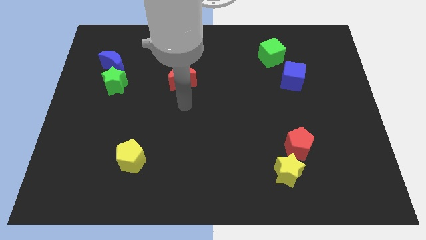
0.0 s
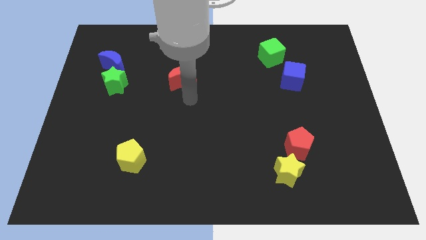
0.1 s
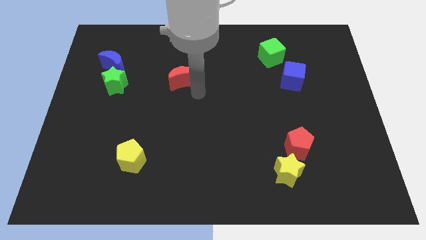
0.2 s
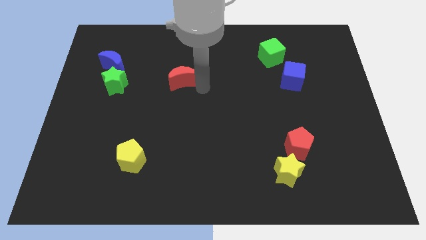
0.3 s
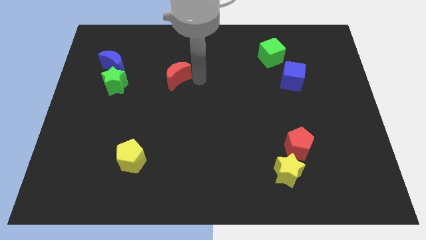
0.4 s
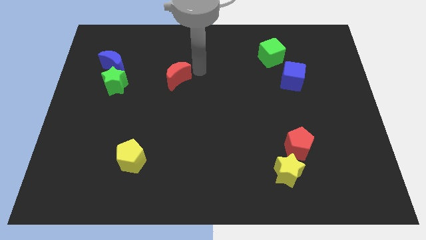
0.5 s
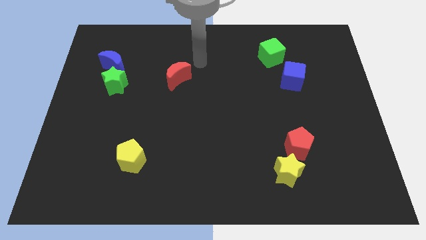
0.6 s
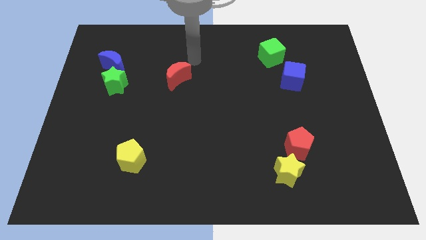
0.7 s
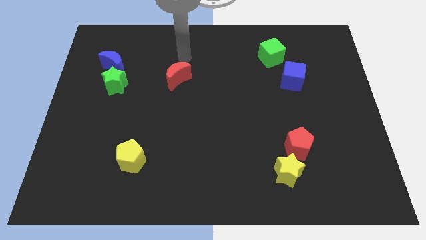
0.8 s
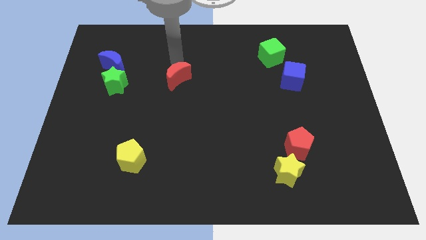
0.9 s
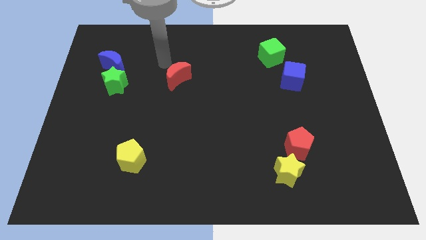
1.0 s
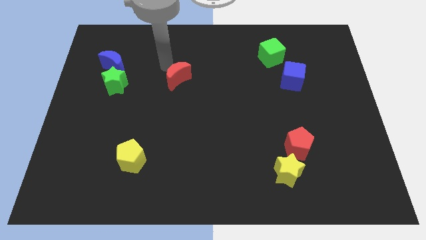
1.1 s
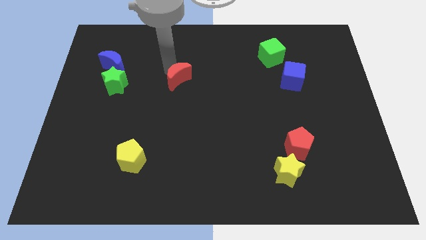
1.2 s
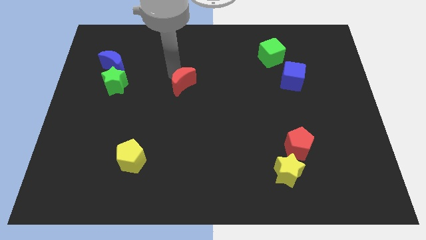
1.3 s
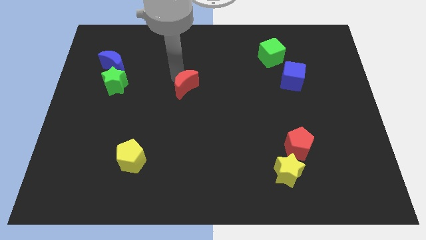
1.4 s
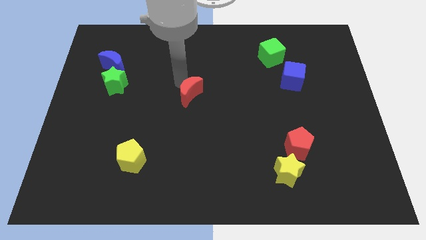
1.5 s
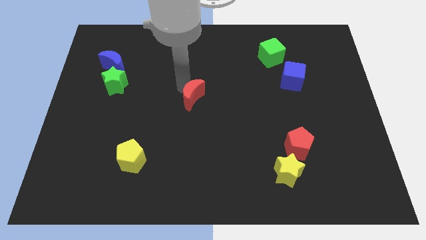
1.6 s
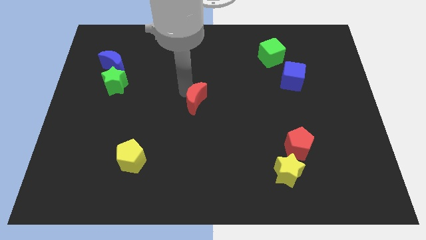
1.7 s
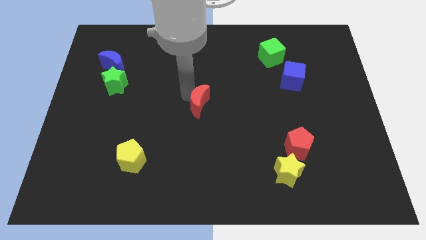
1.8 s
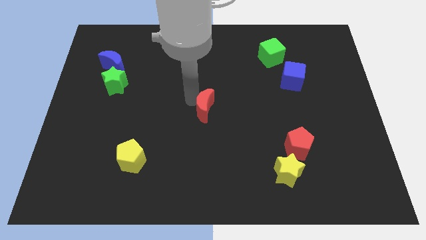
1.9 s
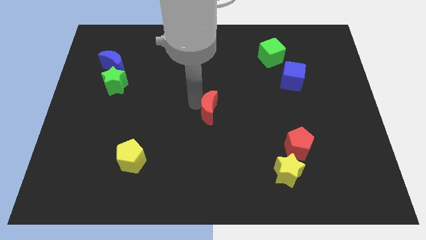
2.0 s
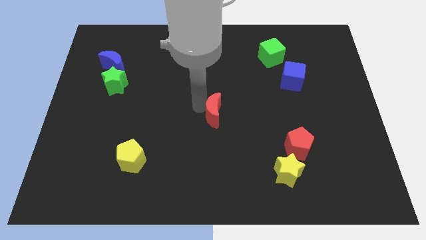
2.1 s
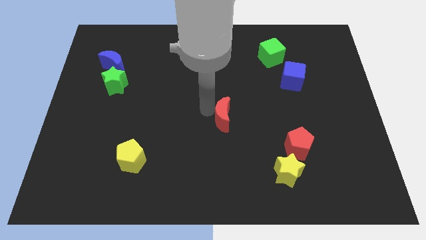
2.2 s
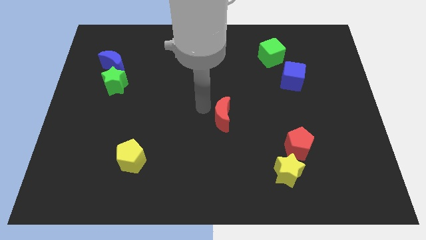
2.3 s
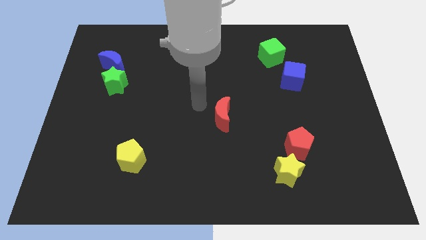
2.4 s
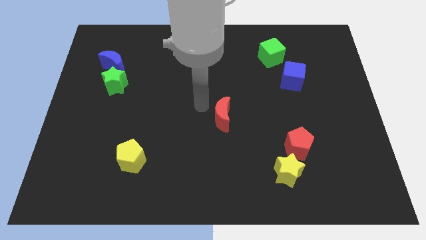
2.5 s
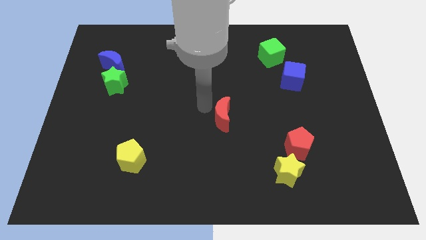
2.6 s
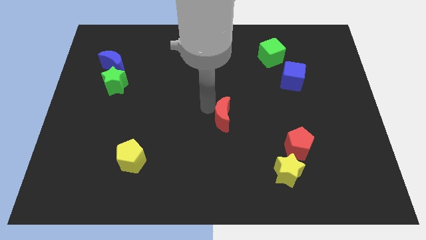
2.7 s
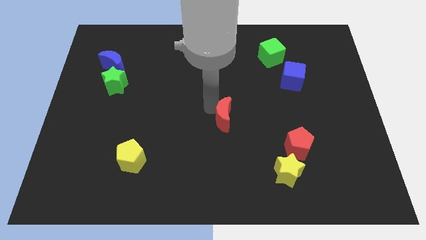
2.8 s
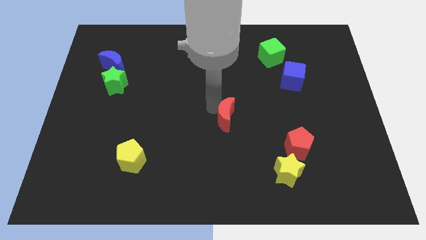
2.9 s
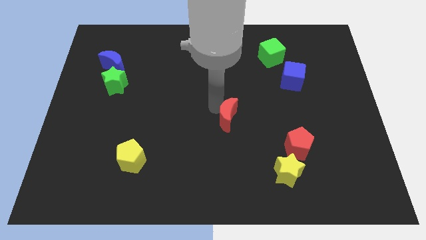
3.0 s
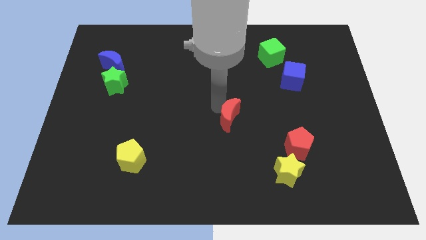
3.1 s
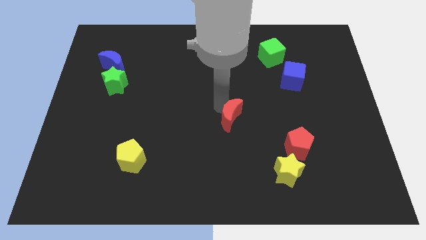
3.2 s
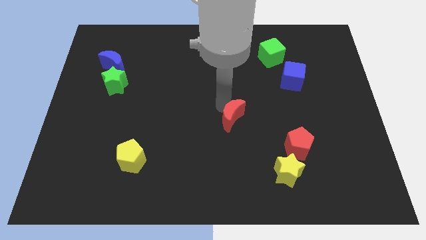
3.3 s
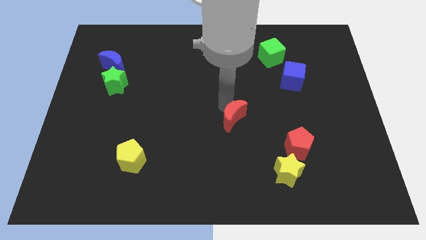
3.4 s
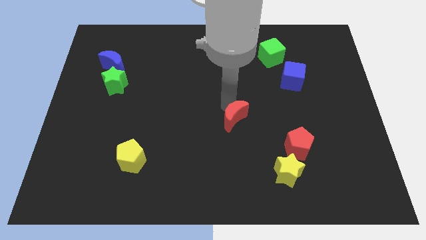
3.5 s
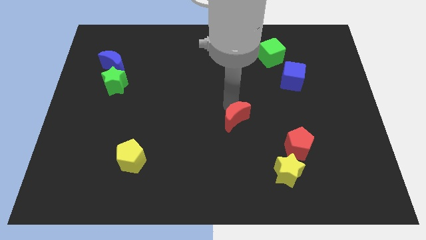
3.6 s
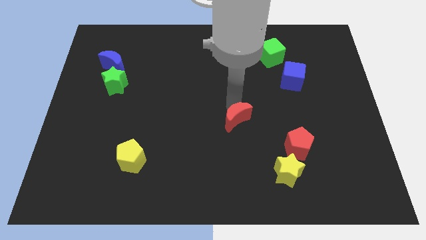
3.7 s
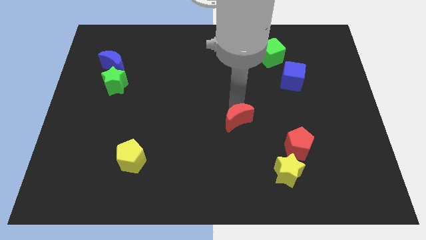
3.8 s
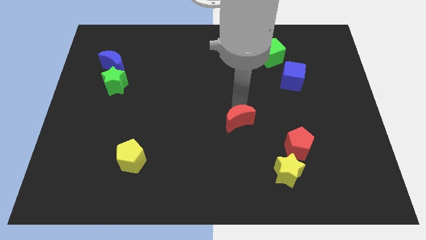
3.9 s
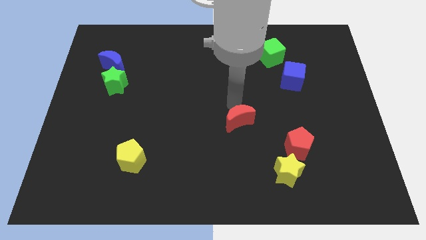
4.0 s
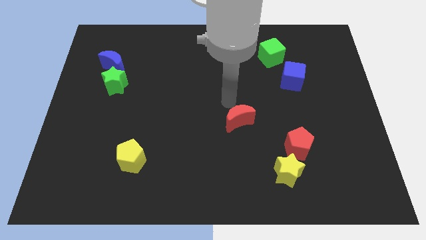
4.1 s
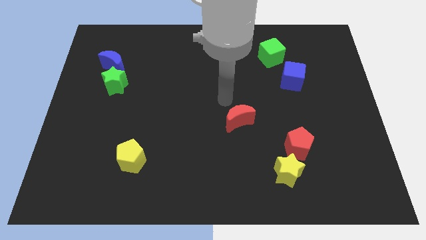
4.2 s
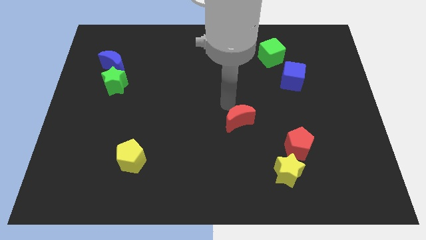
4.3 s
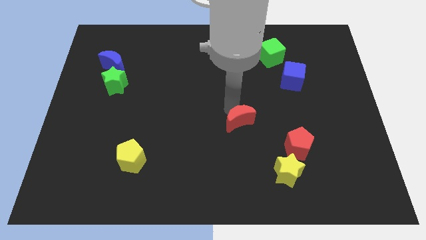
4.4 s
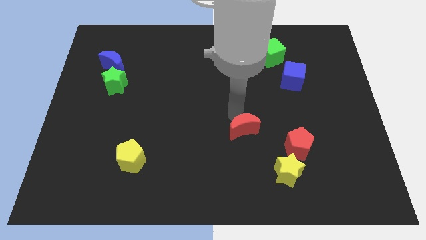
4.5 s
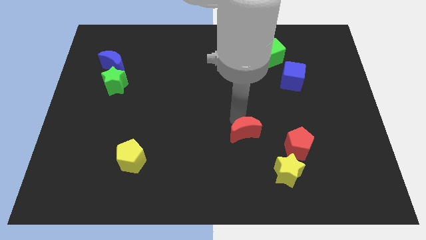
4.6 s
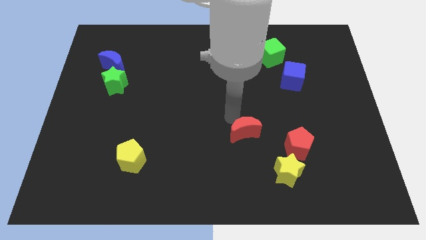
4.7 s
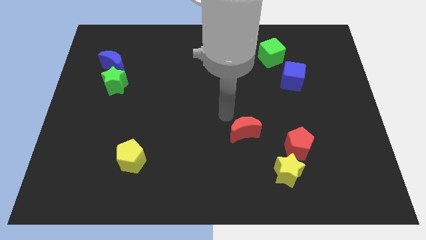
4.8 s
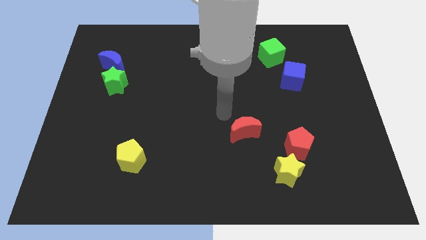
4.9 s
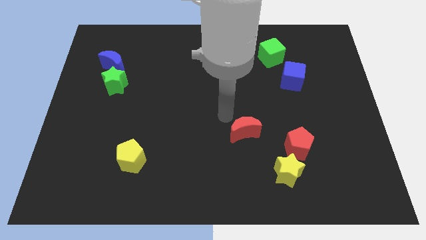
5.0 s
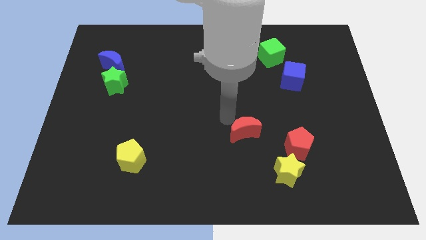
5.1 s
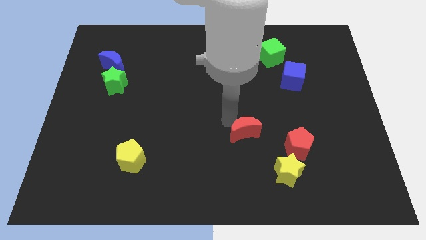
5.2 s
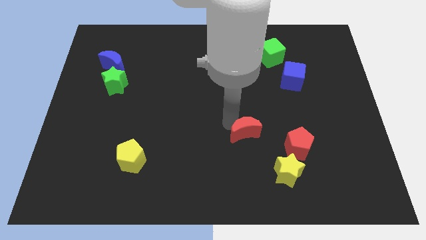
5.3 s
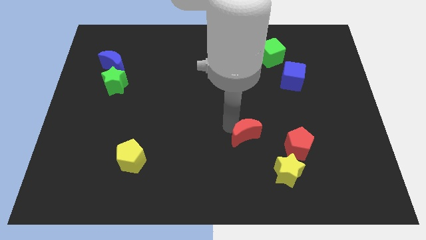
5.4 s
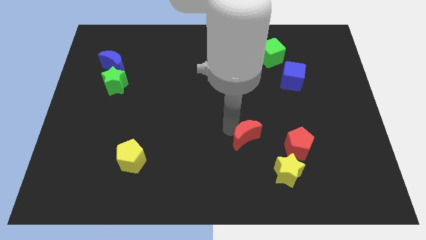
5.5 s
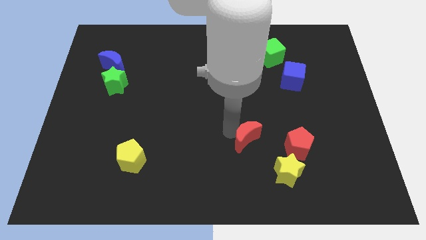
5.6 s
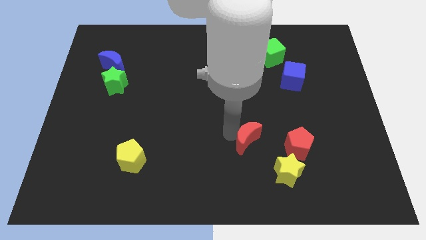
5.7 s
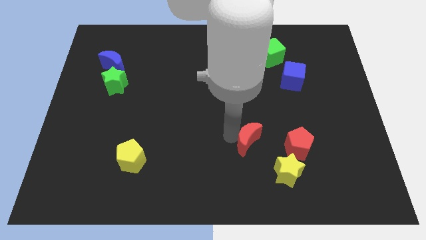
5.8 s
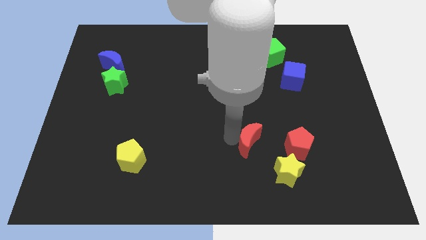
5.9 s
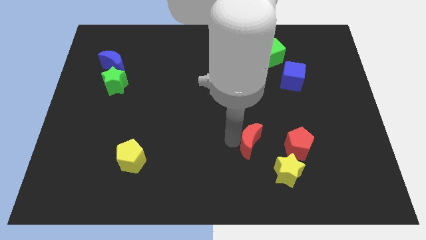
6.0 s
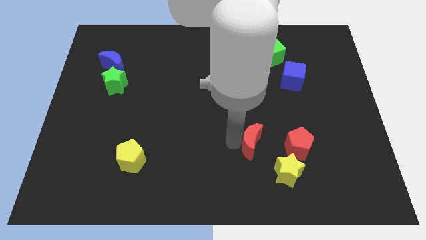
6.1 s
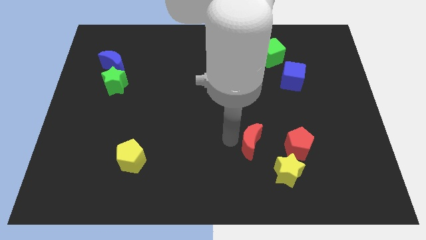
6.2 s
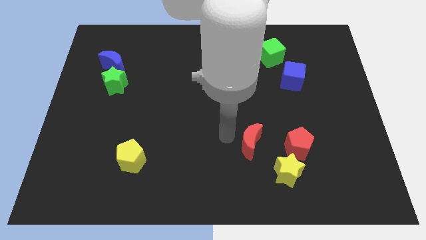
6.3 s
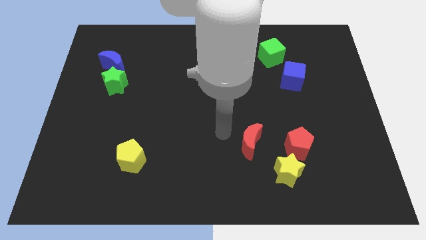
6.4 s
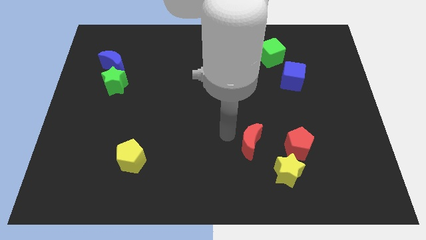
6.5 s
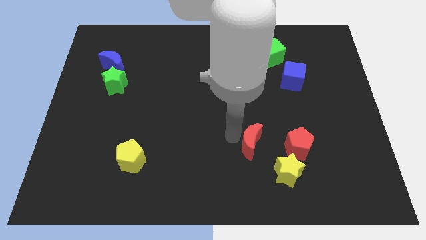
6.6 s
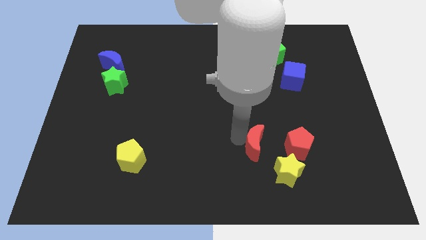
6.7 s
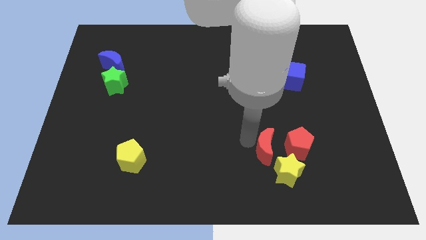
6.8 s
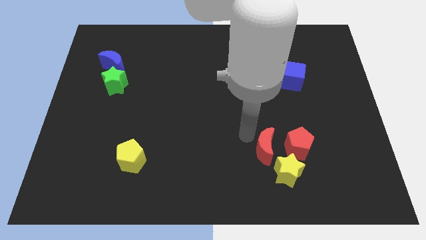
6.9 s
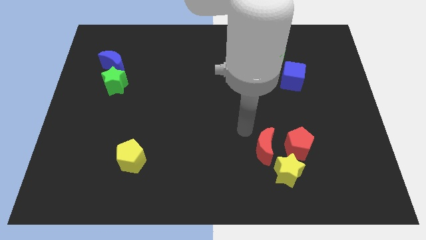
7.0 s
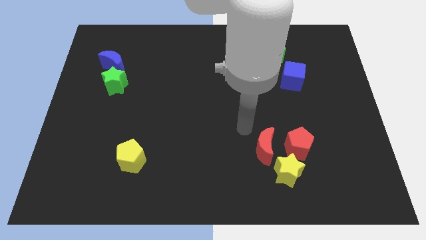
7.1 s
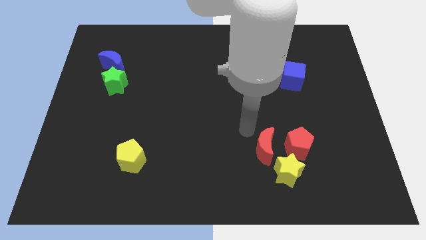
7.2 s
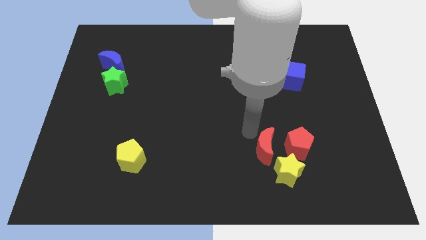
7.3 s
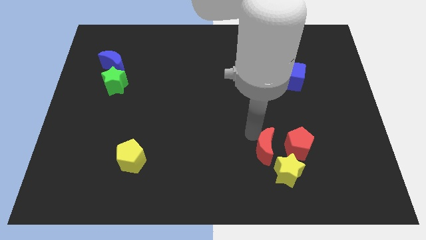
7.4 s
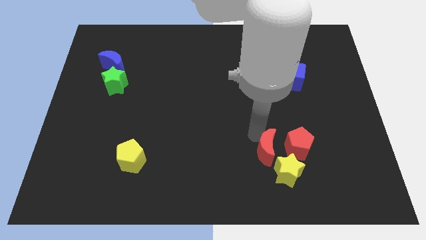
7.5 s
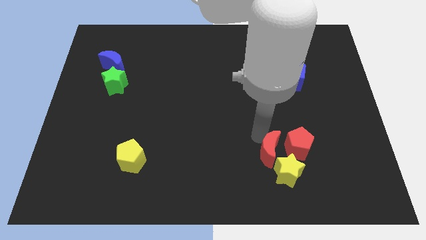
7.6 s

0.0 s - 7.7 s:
put the red moon close to the yellow star
